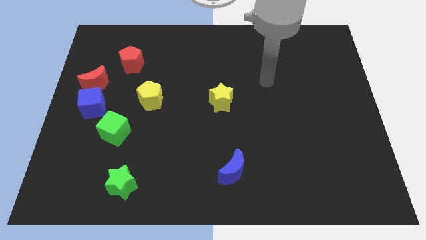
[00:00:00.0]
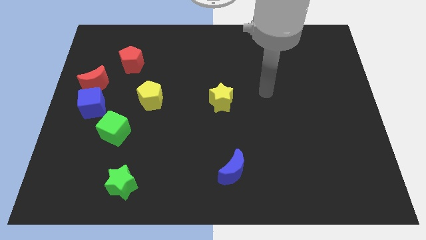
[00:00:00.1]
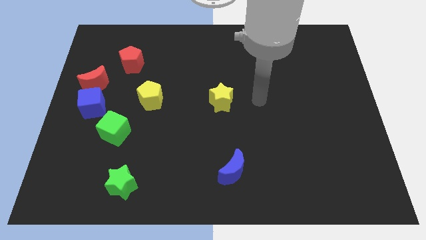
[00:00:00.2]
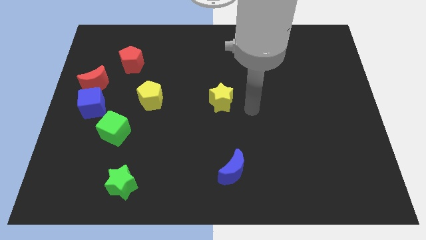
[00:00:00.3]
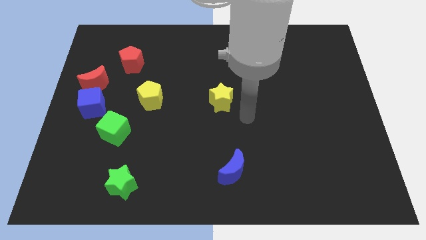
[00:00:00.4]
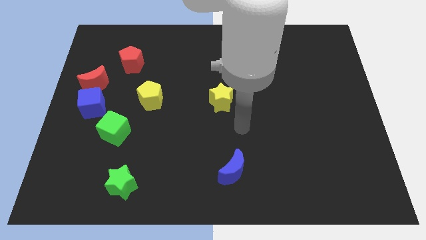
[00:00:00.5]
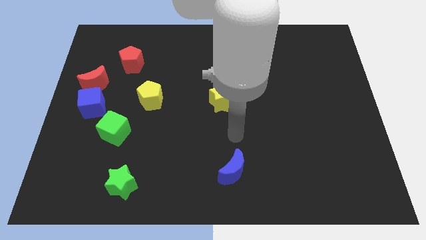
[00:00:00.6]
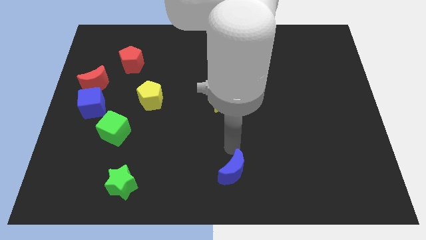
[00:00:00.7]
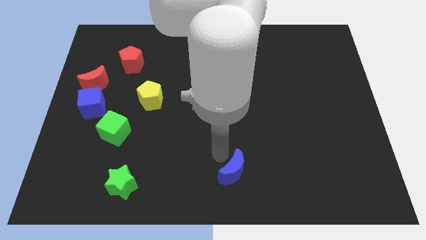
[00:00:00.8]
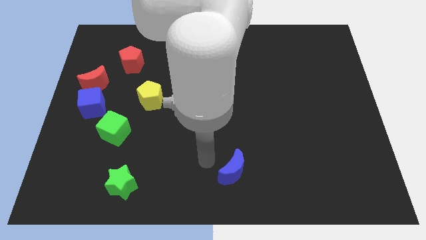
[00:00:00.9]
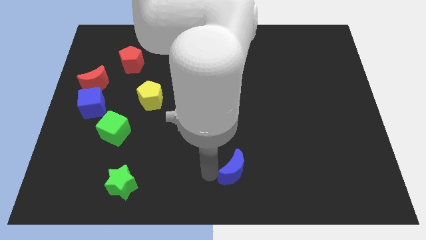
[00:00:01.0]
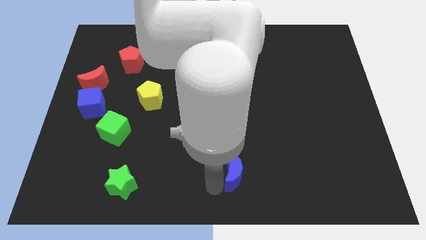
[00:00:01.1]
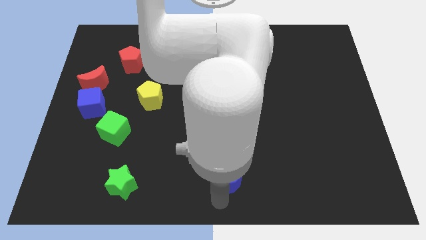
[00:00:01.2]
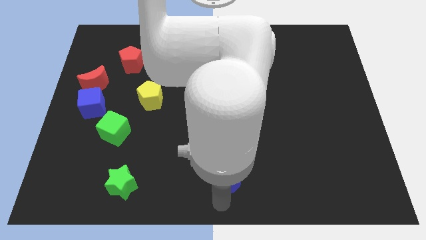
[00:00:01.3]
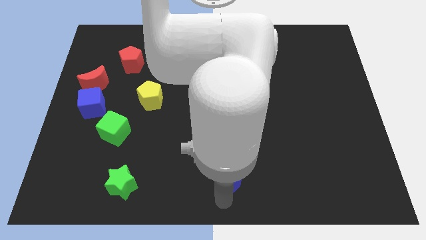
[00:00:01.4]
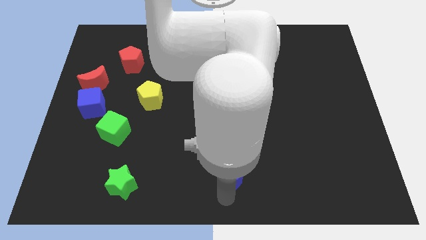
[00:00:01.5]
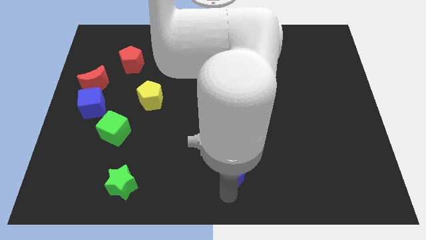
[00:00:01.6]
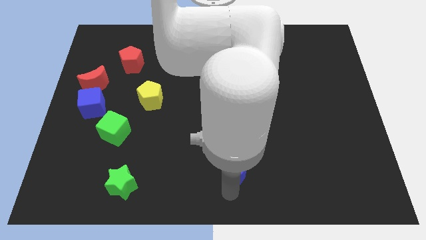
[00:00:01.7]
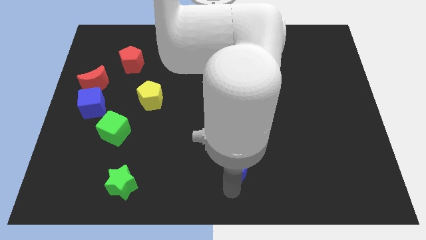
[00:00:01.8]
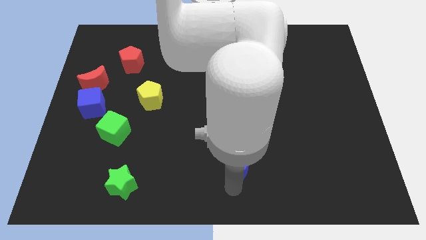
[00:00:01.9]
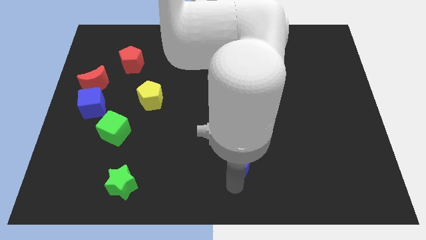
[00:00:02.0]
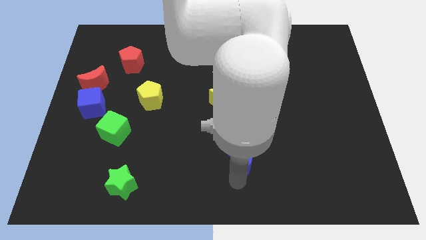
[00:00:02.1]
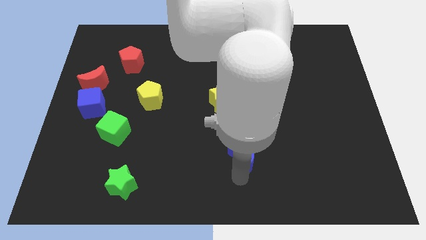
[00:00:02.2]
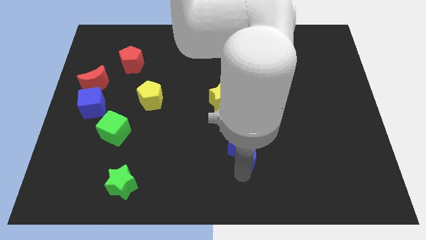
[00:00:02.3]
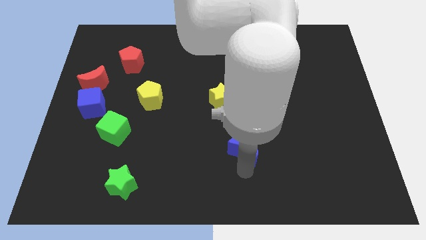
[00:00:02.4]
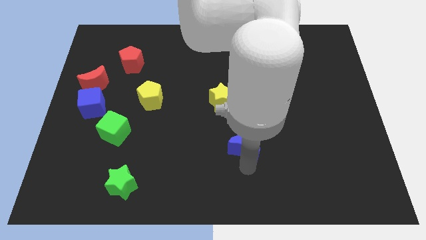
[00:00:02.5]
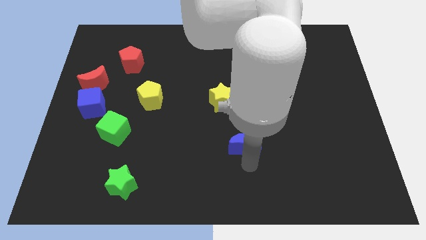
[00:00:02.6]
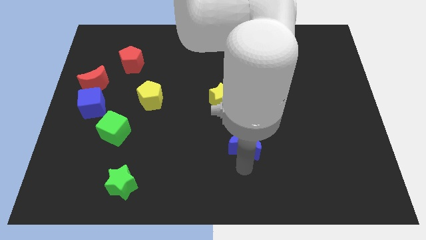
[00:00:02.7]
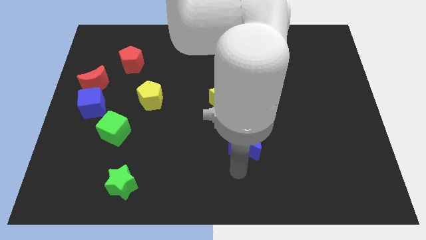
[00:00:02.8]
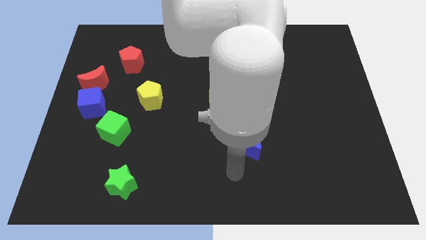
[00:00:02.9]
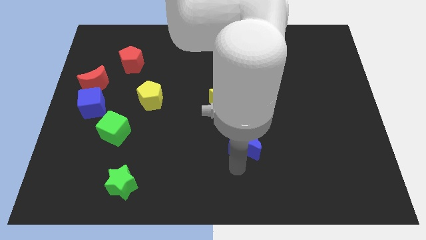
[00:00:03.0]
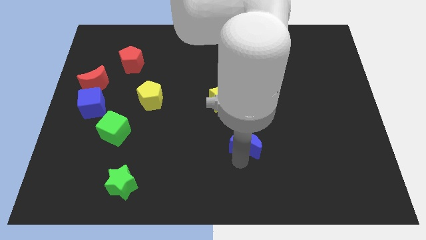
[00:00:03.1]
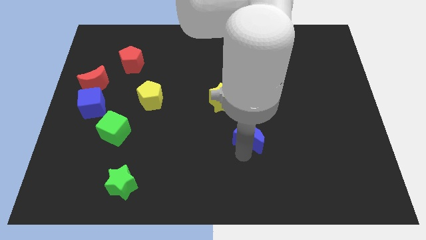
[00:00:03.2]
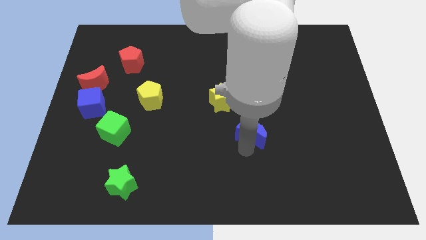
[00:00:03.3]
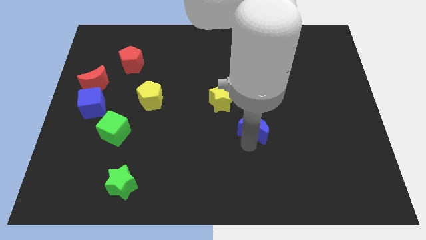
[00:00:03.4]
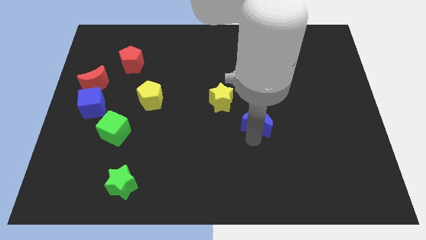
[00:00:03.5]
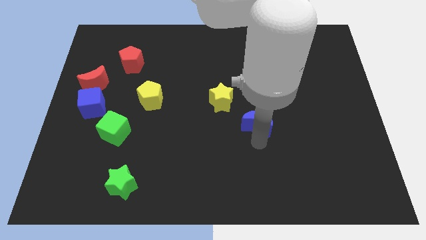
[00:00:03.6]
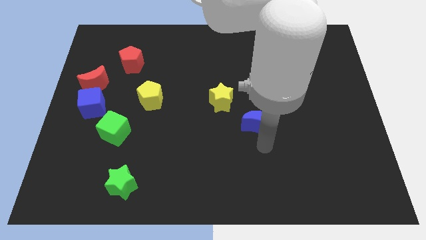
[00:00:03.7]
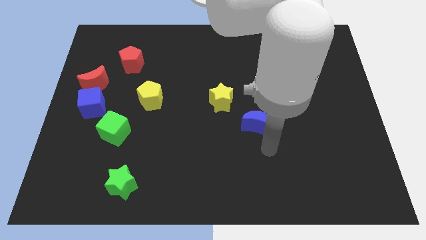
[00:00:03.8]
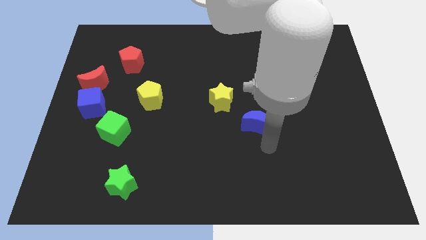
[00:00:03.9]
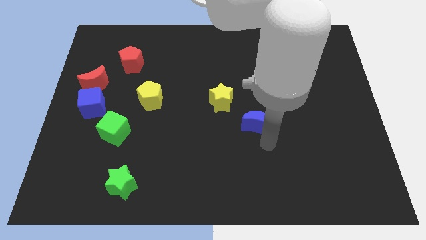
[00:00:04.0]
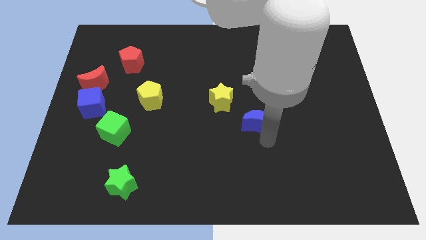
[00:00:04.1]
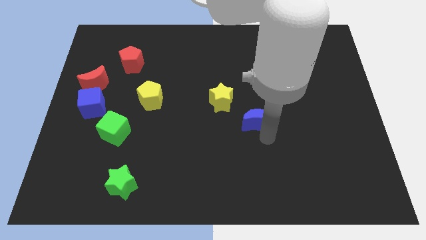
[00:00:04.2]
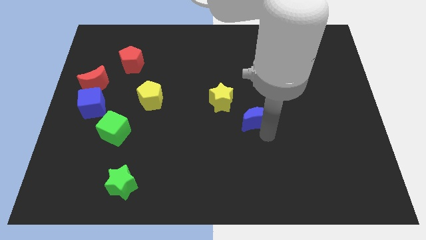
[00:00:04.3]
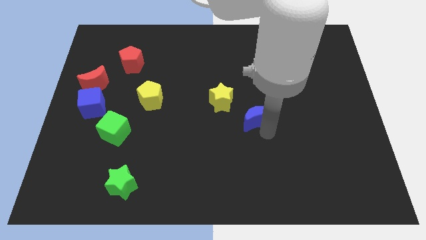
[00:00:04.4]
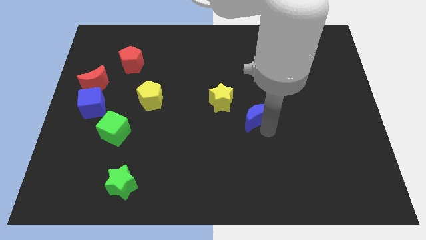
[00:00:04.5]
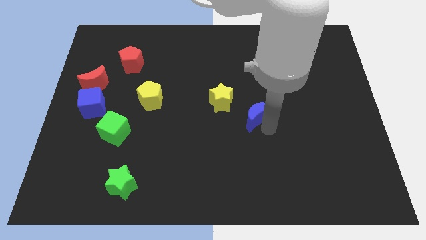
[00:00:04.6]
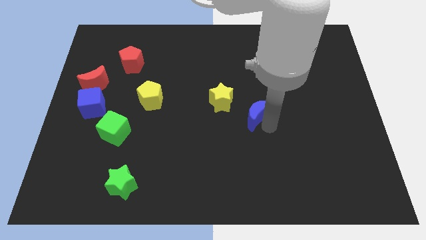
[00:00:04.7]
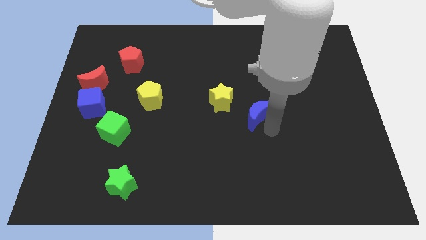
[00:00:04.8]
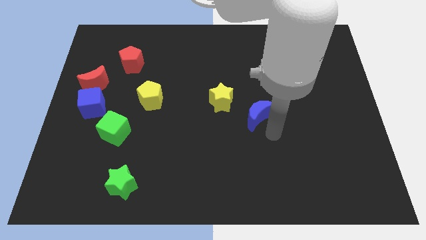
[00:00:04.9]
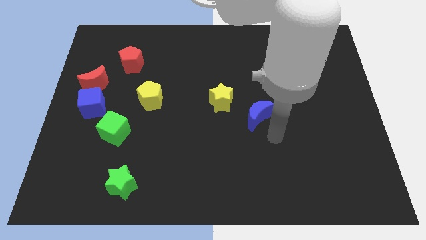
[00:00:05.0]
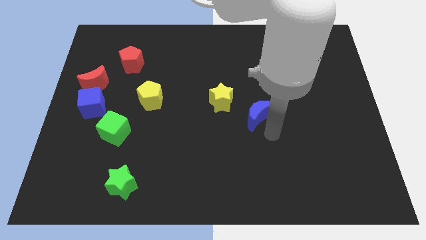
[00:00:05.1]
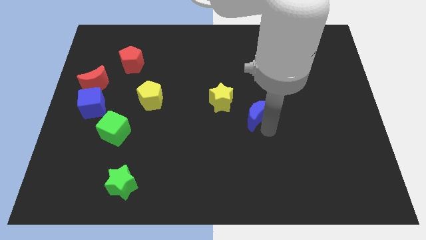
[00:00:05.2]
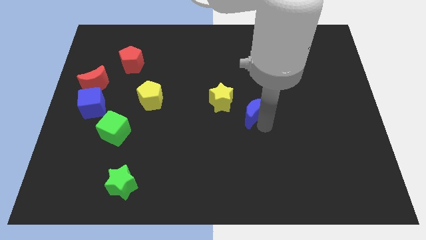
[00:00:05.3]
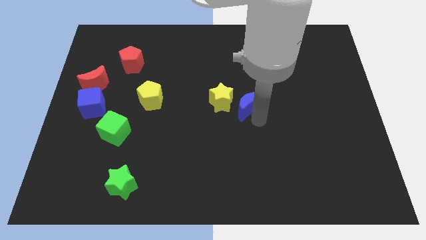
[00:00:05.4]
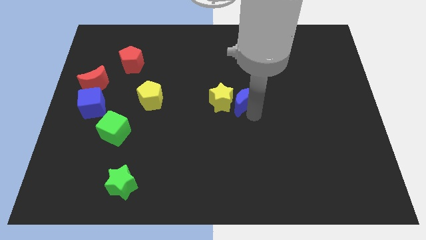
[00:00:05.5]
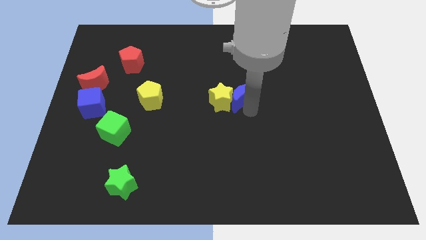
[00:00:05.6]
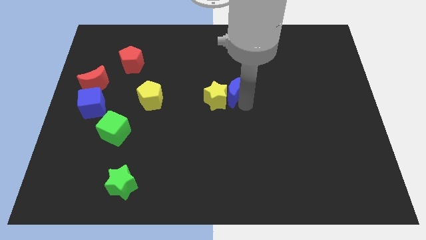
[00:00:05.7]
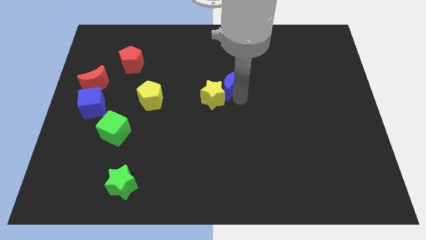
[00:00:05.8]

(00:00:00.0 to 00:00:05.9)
slide the blue moon above the yellow star

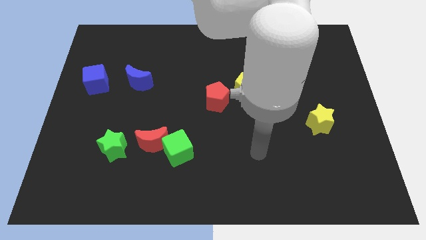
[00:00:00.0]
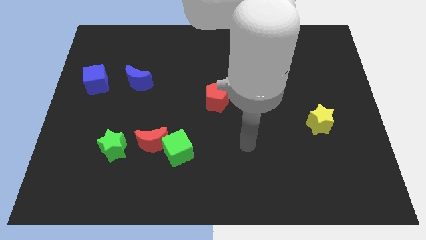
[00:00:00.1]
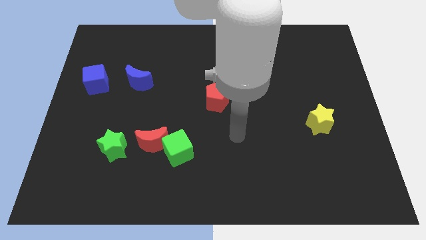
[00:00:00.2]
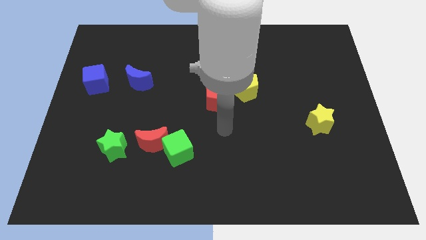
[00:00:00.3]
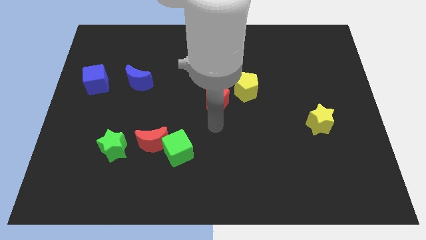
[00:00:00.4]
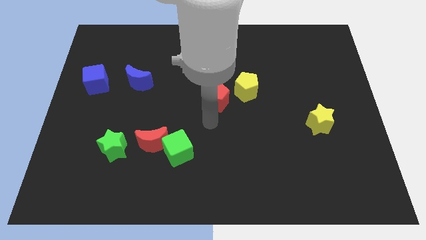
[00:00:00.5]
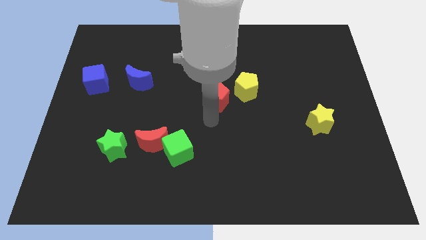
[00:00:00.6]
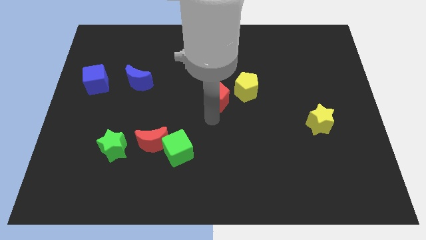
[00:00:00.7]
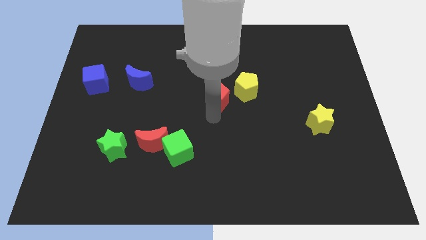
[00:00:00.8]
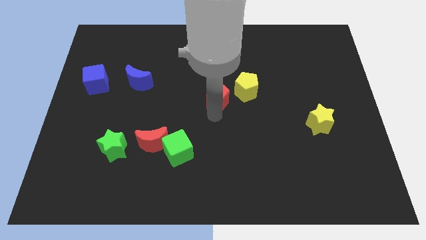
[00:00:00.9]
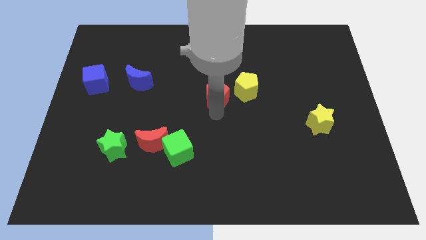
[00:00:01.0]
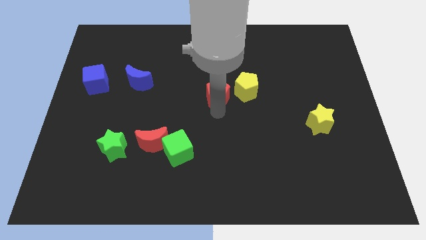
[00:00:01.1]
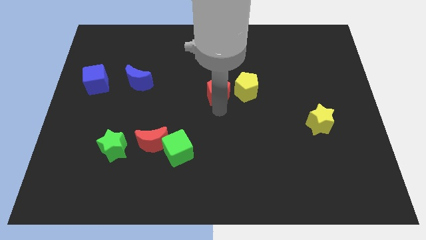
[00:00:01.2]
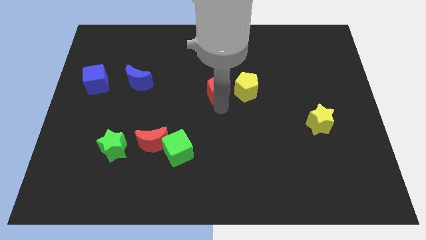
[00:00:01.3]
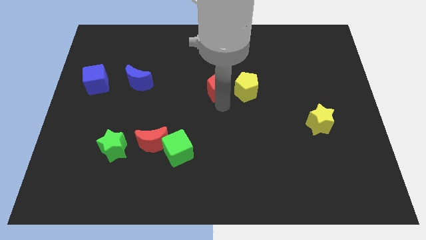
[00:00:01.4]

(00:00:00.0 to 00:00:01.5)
put the red pentagon to the top left side of the yellow pentagon
